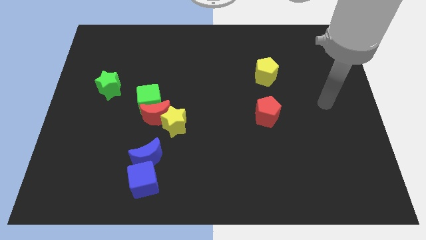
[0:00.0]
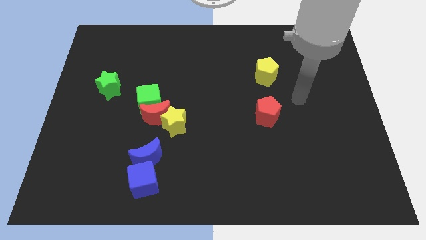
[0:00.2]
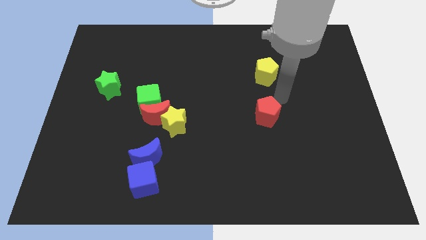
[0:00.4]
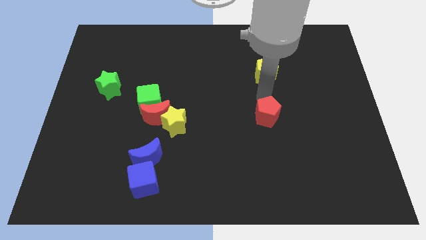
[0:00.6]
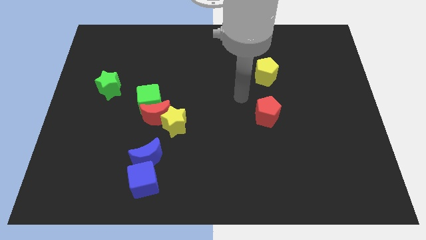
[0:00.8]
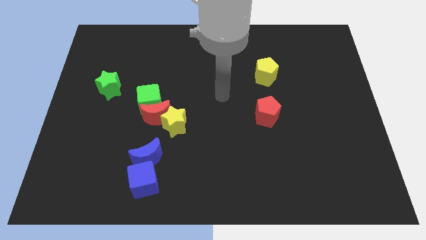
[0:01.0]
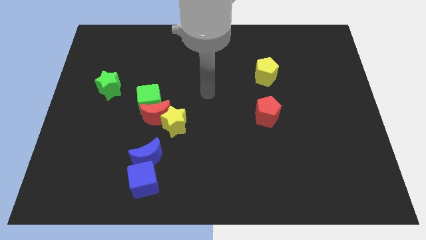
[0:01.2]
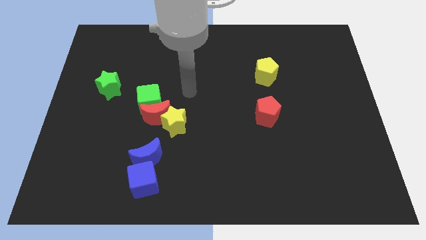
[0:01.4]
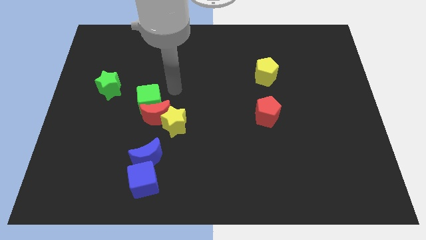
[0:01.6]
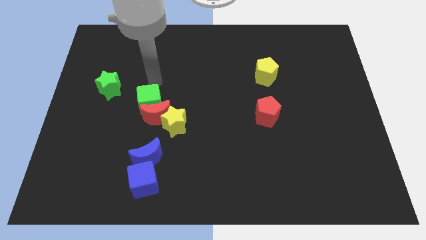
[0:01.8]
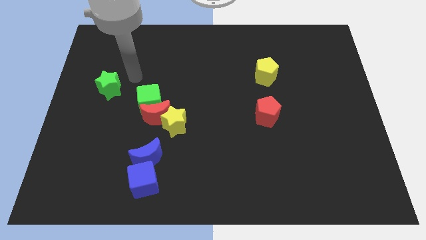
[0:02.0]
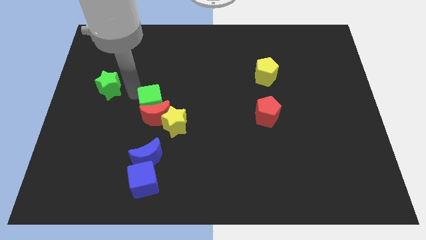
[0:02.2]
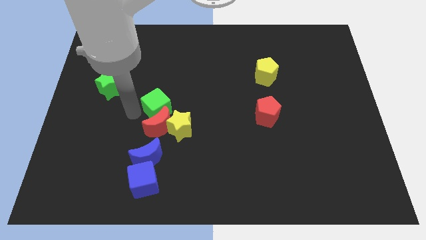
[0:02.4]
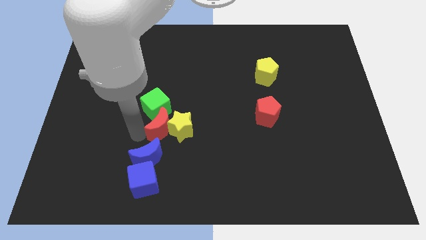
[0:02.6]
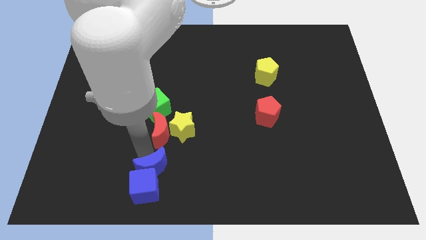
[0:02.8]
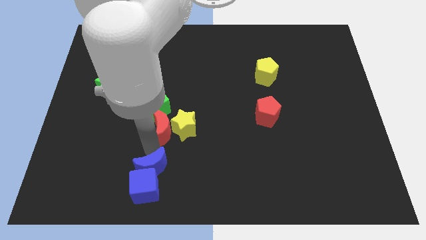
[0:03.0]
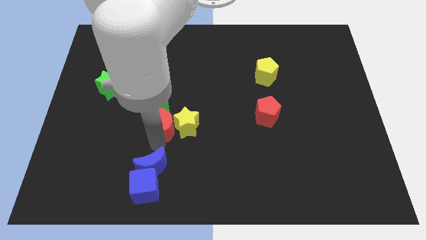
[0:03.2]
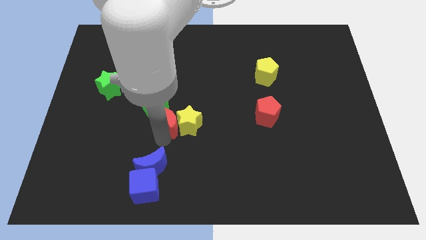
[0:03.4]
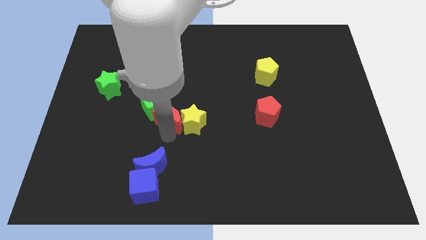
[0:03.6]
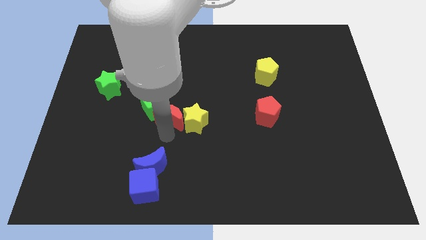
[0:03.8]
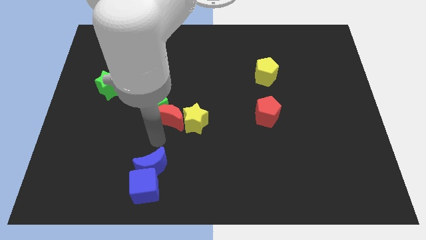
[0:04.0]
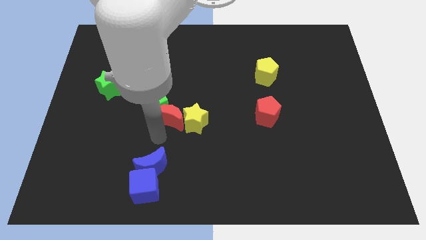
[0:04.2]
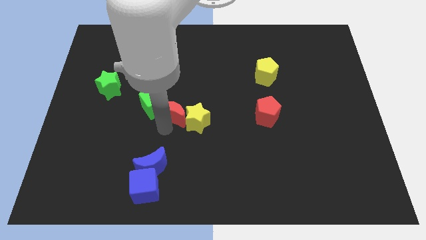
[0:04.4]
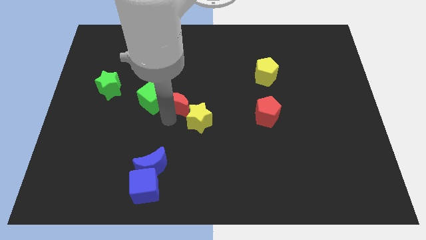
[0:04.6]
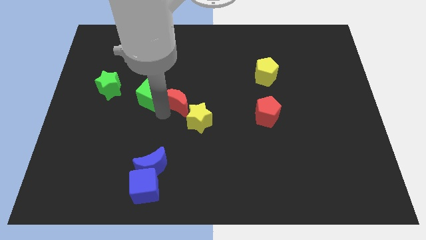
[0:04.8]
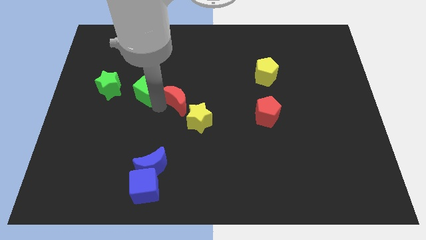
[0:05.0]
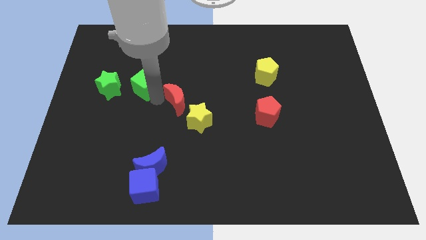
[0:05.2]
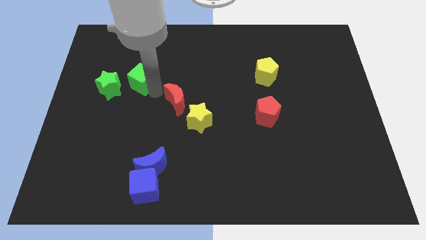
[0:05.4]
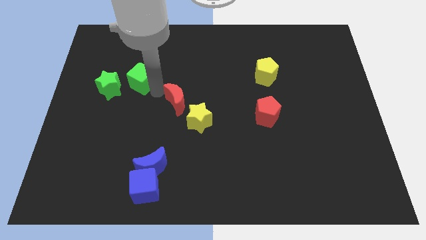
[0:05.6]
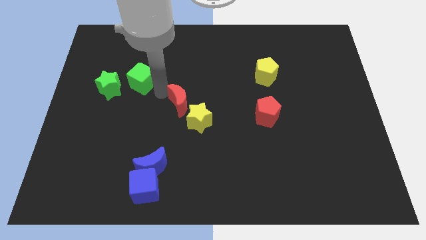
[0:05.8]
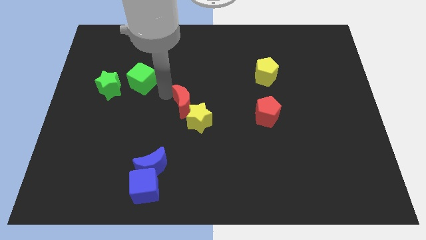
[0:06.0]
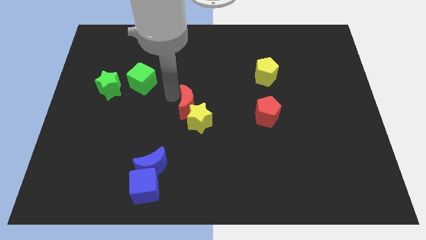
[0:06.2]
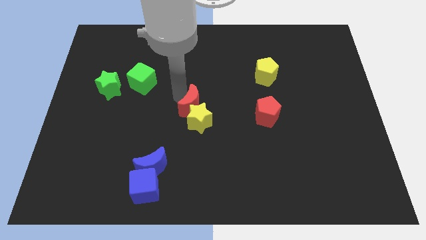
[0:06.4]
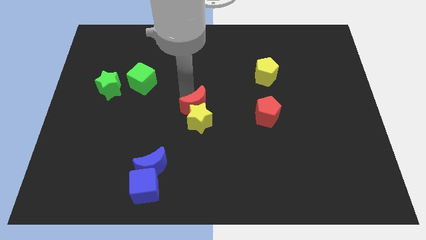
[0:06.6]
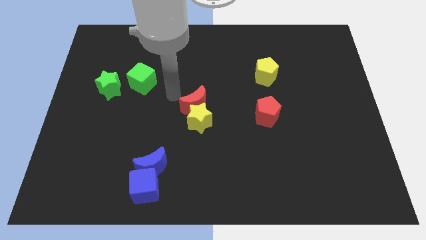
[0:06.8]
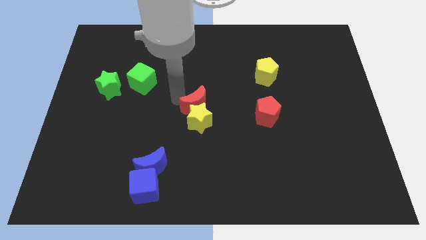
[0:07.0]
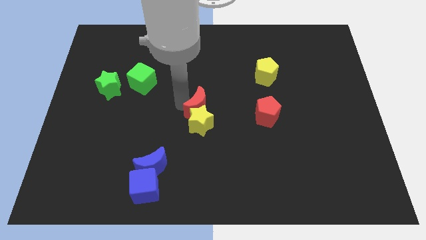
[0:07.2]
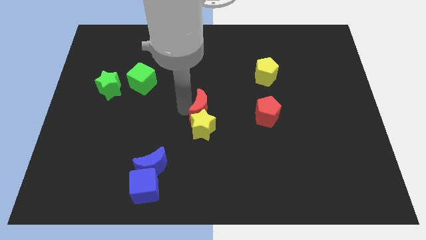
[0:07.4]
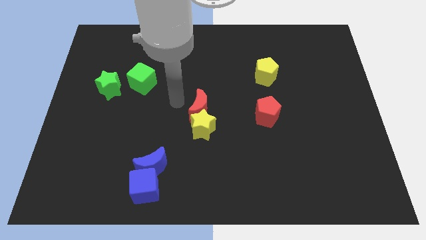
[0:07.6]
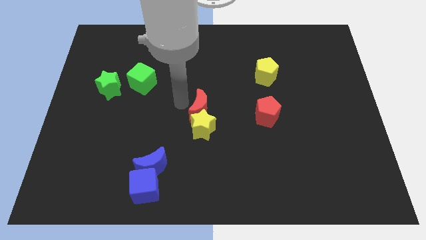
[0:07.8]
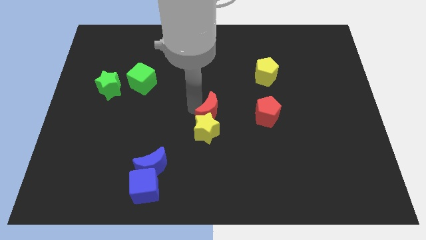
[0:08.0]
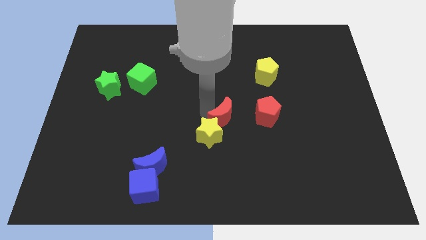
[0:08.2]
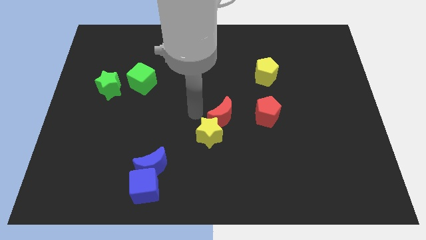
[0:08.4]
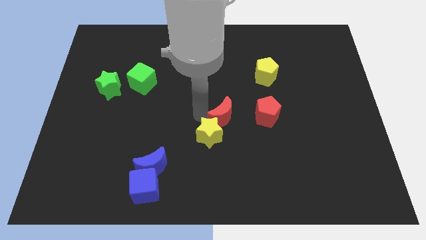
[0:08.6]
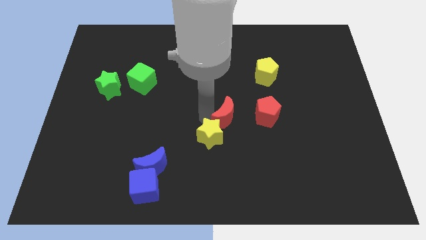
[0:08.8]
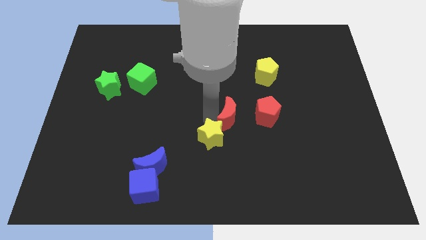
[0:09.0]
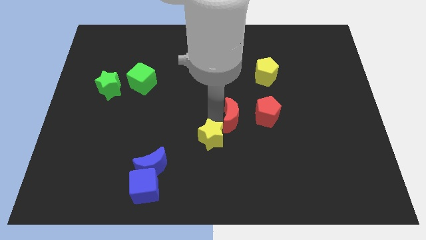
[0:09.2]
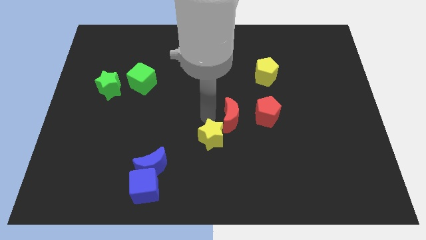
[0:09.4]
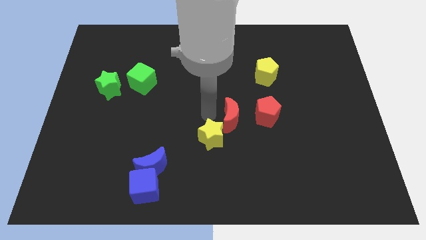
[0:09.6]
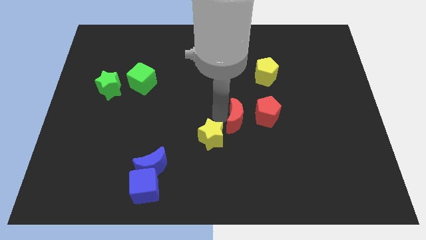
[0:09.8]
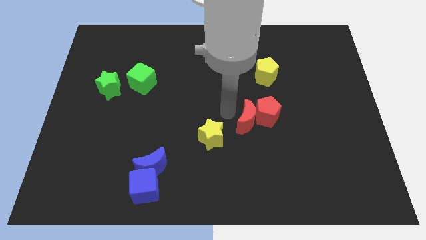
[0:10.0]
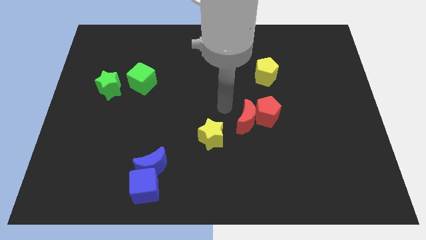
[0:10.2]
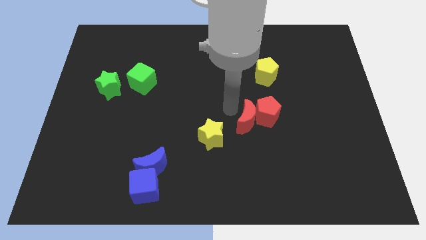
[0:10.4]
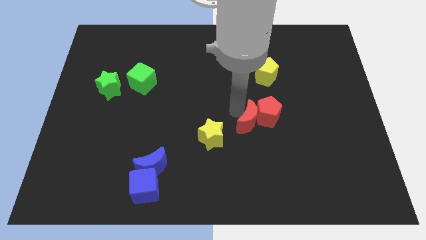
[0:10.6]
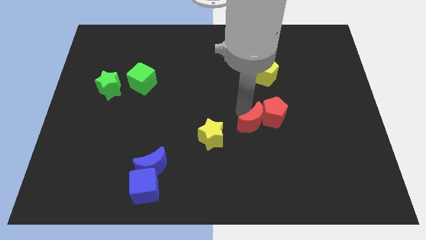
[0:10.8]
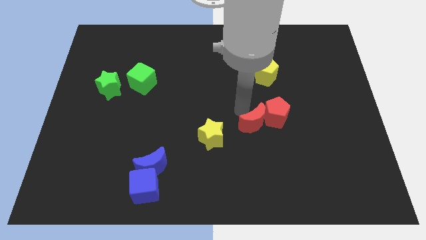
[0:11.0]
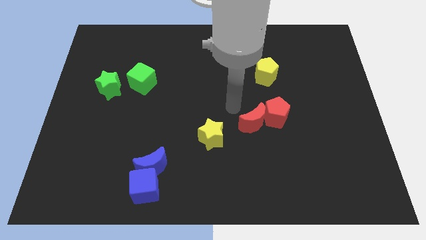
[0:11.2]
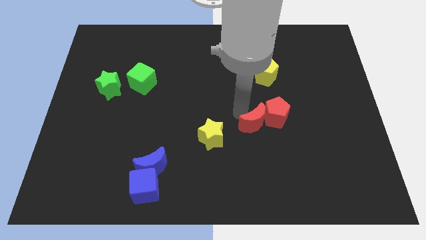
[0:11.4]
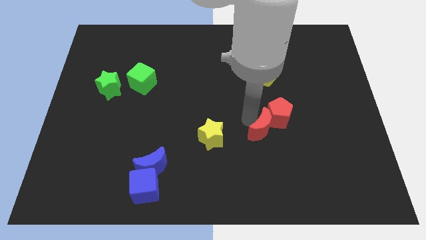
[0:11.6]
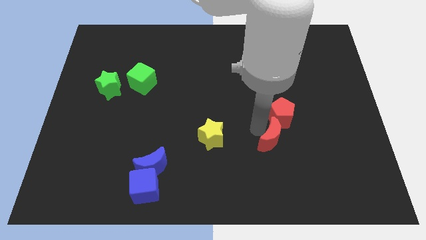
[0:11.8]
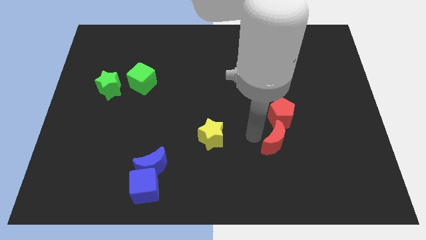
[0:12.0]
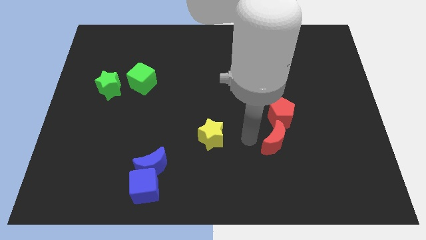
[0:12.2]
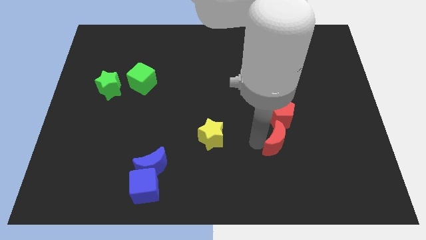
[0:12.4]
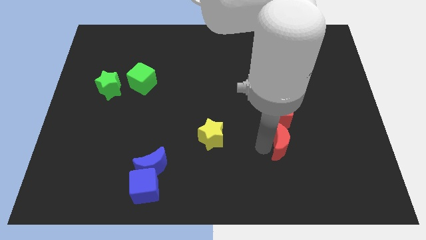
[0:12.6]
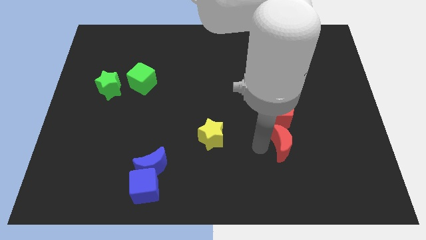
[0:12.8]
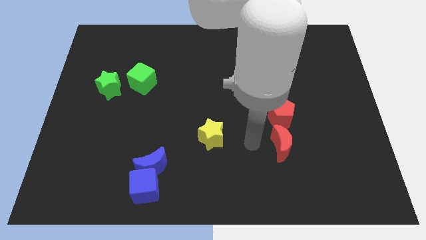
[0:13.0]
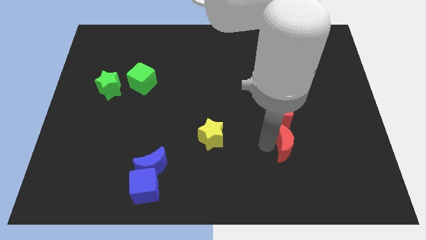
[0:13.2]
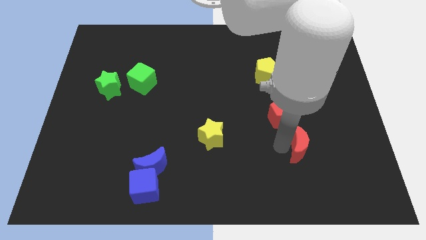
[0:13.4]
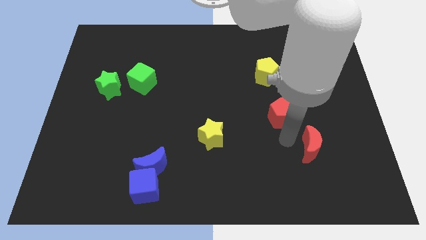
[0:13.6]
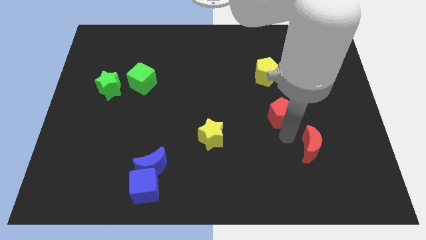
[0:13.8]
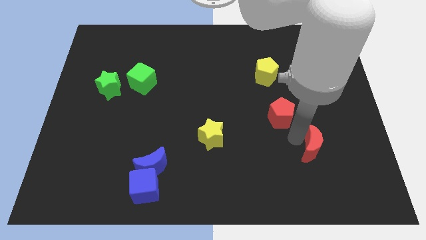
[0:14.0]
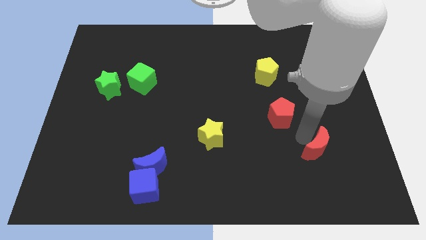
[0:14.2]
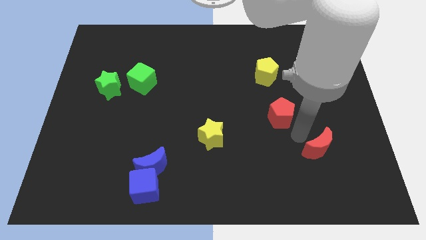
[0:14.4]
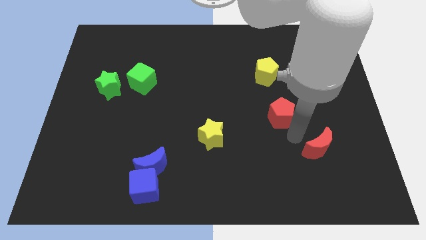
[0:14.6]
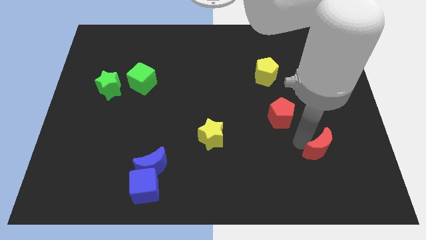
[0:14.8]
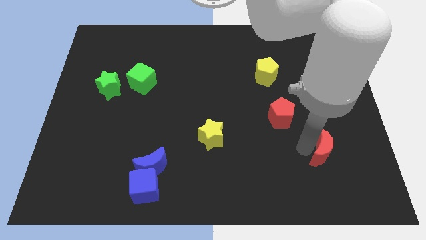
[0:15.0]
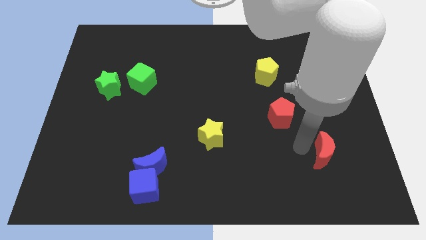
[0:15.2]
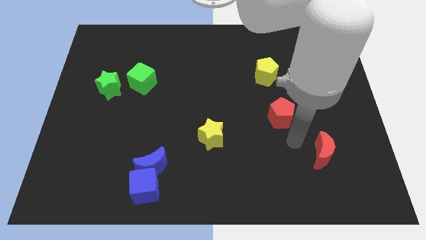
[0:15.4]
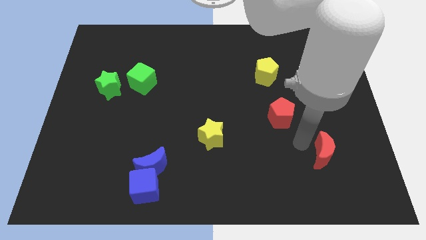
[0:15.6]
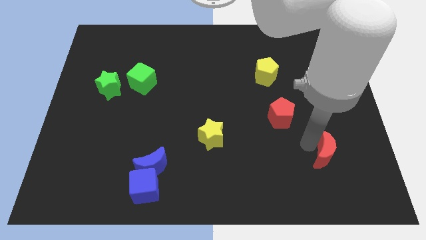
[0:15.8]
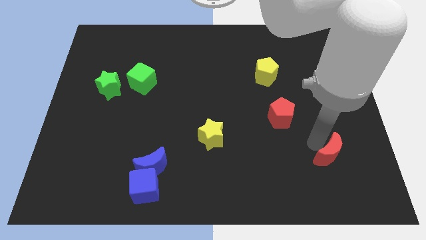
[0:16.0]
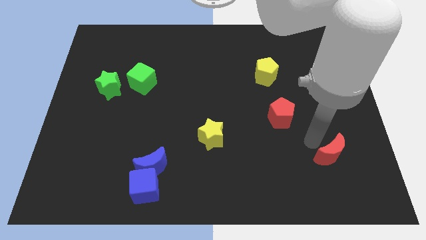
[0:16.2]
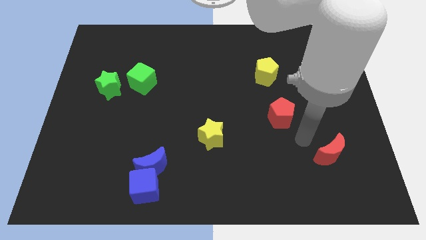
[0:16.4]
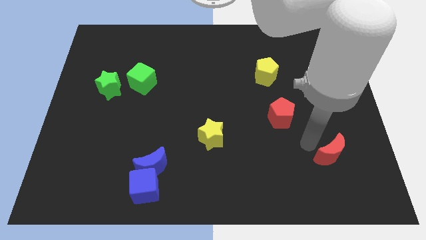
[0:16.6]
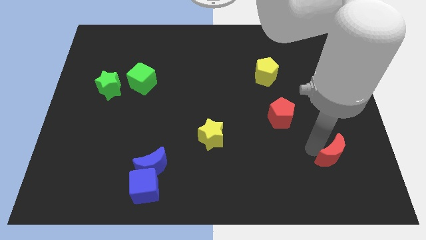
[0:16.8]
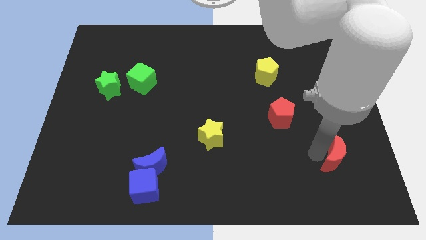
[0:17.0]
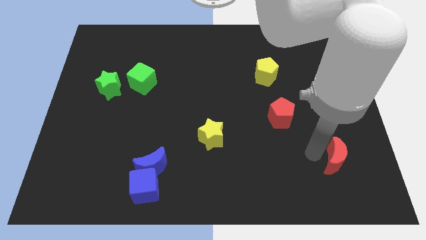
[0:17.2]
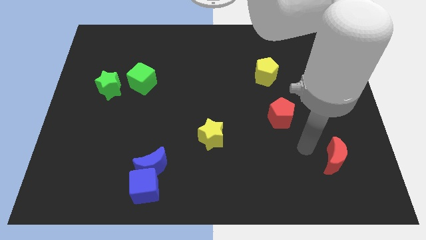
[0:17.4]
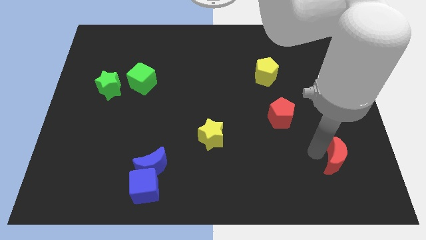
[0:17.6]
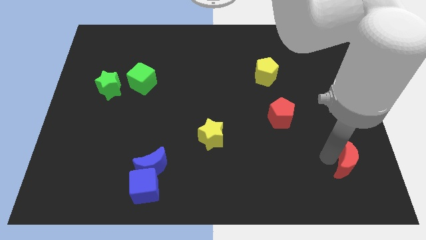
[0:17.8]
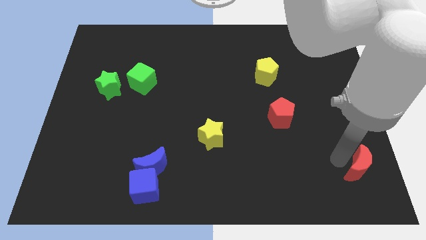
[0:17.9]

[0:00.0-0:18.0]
put the red moon to the bottom right corner
